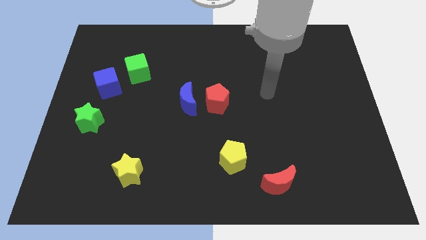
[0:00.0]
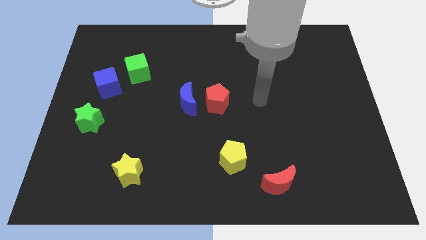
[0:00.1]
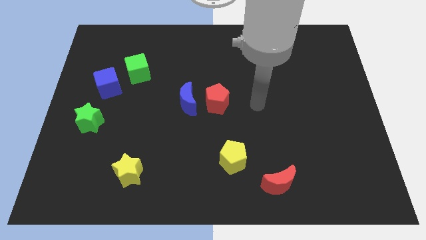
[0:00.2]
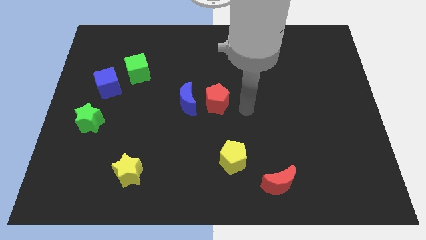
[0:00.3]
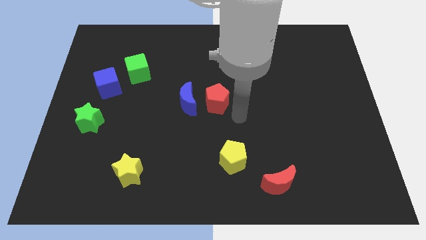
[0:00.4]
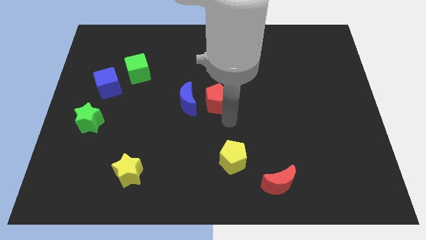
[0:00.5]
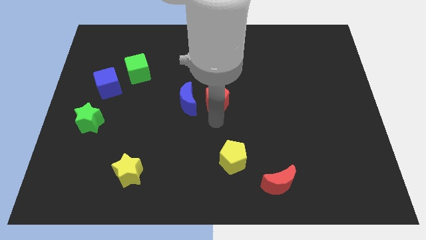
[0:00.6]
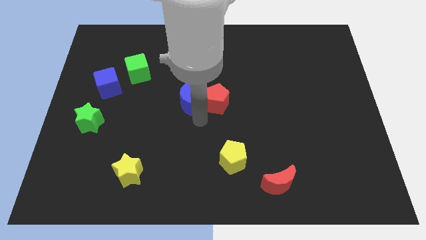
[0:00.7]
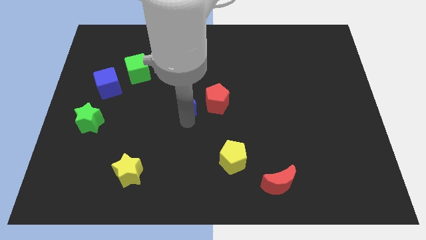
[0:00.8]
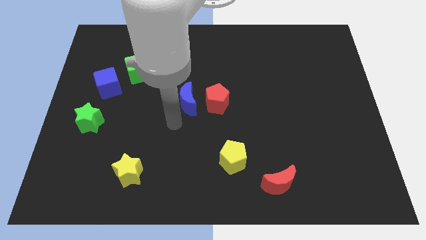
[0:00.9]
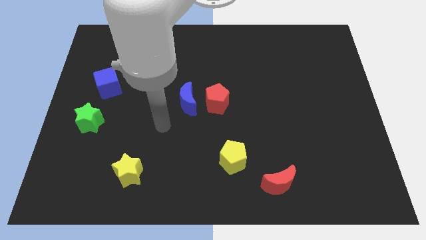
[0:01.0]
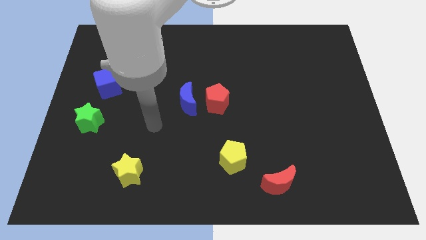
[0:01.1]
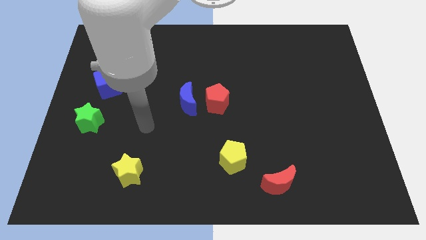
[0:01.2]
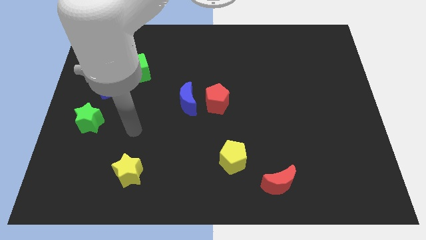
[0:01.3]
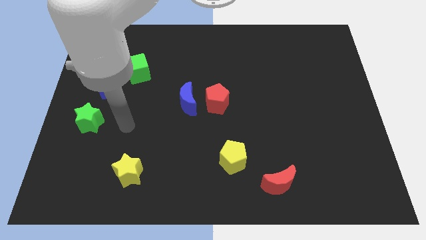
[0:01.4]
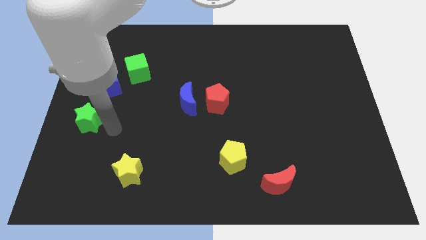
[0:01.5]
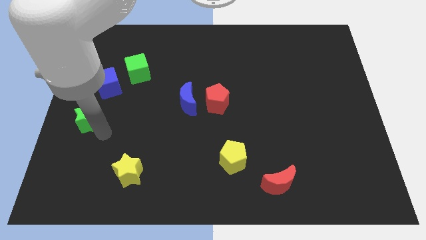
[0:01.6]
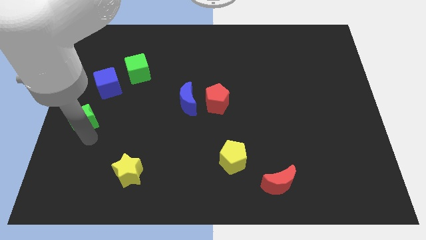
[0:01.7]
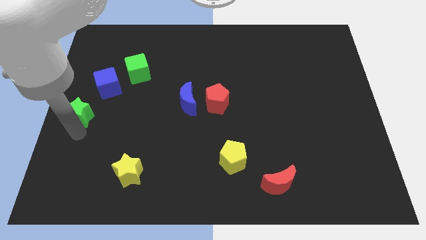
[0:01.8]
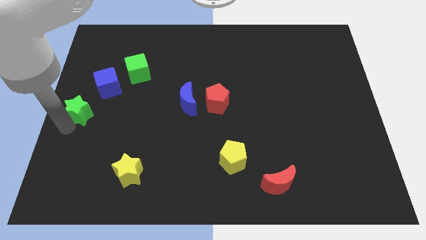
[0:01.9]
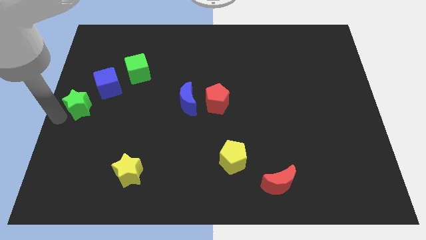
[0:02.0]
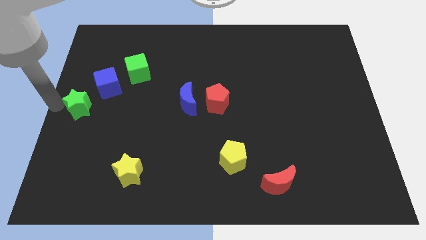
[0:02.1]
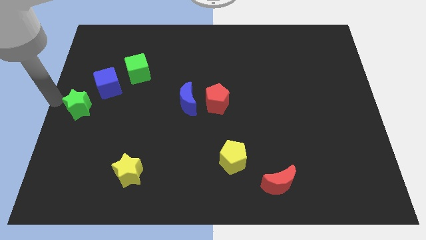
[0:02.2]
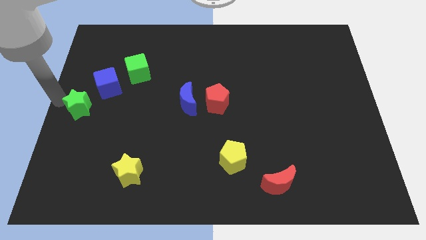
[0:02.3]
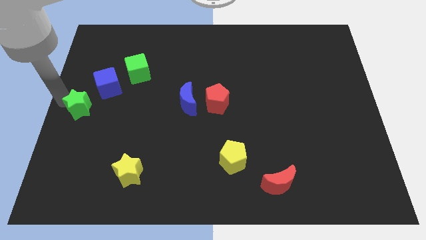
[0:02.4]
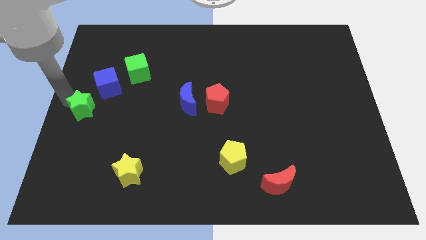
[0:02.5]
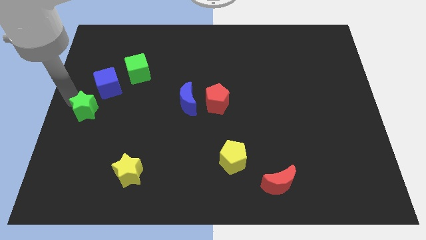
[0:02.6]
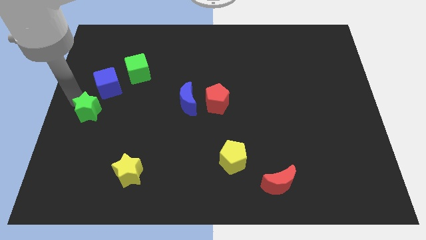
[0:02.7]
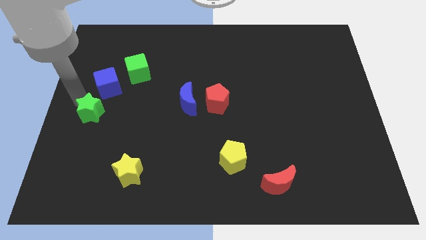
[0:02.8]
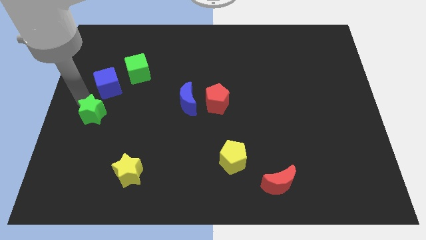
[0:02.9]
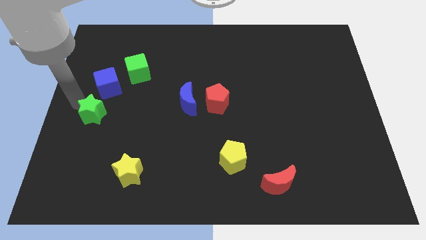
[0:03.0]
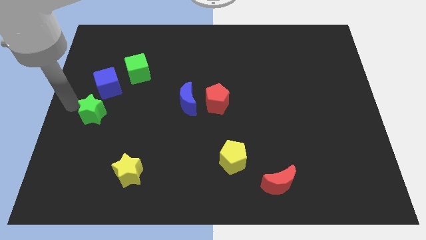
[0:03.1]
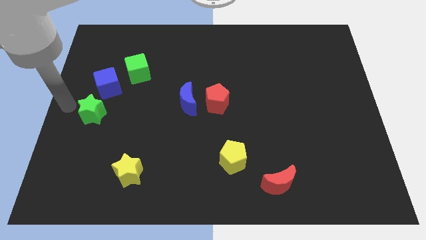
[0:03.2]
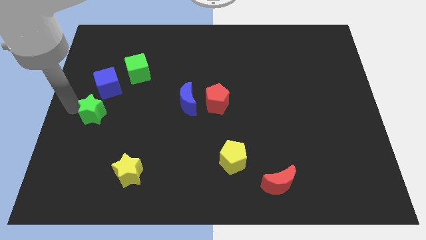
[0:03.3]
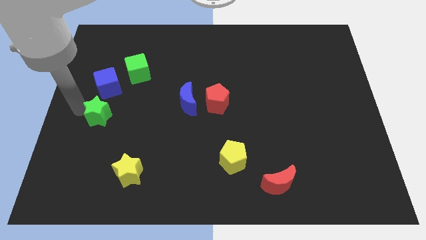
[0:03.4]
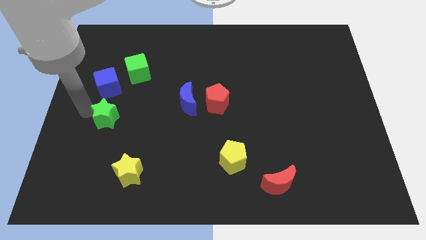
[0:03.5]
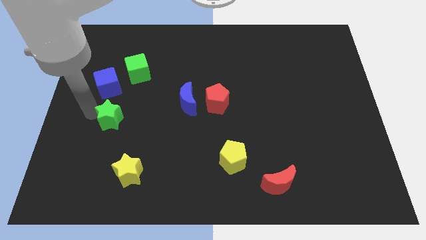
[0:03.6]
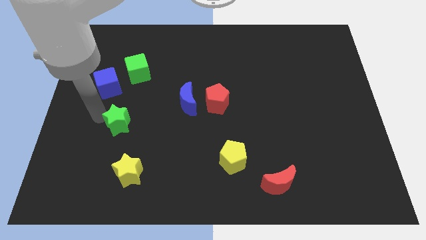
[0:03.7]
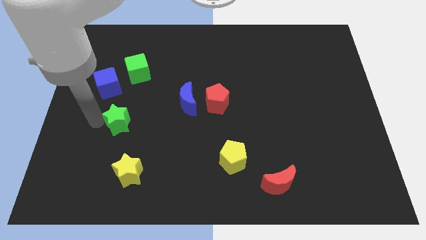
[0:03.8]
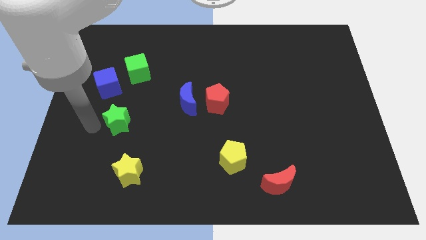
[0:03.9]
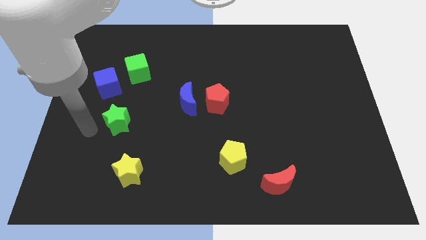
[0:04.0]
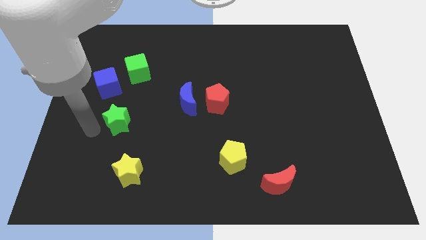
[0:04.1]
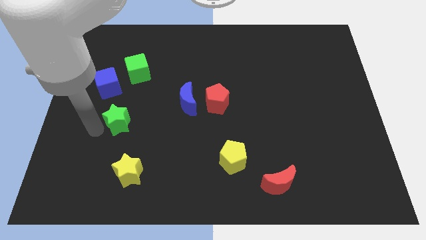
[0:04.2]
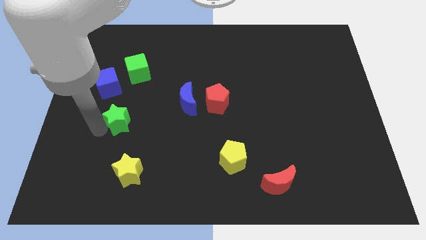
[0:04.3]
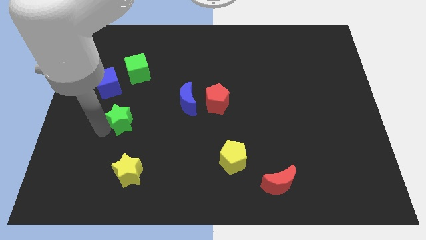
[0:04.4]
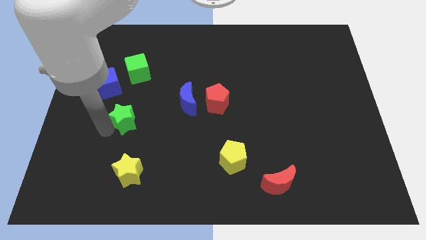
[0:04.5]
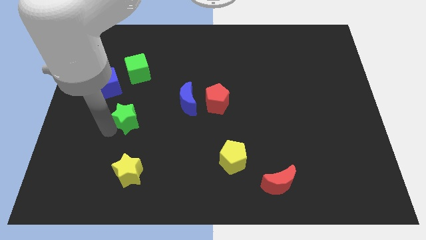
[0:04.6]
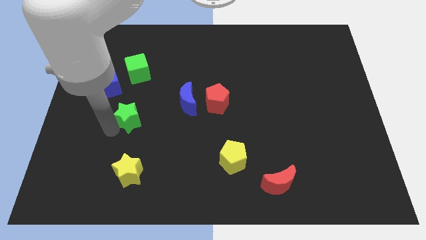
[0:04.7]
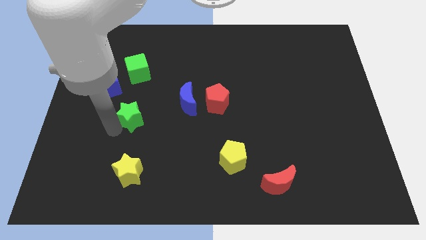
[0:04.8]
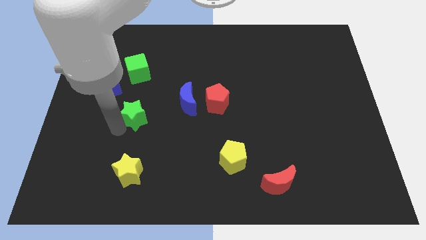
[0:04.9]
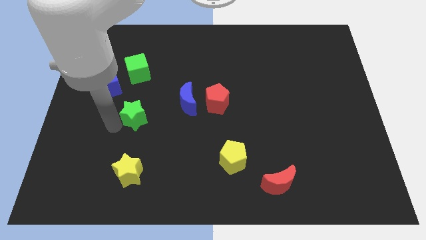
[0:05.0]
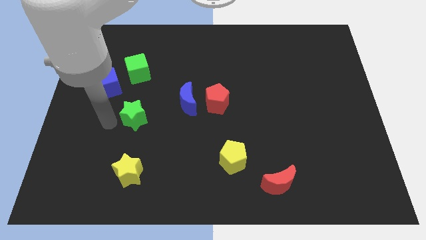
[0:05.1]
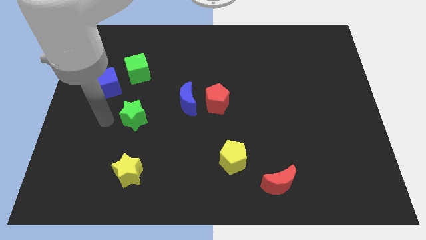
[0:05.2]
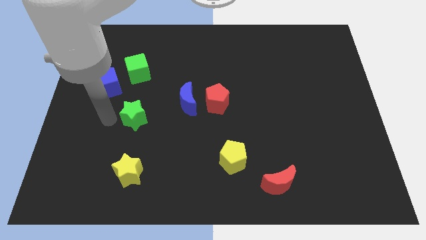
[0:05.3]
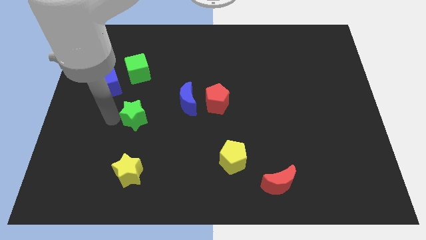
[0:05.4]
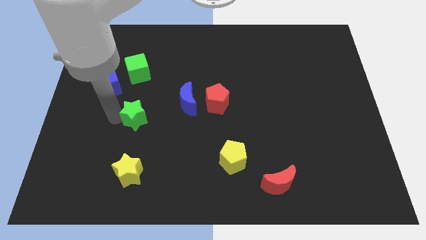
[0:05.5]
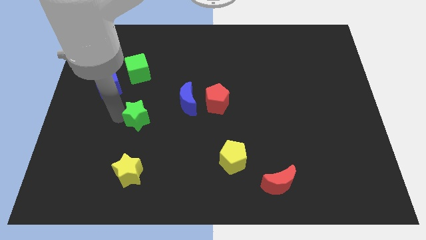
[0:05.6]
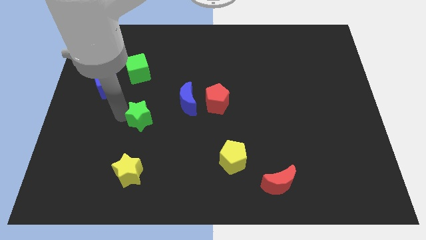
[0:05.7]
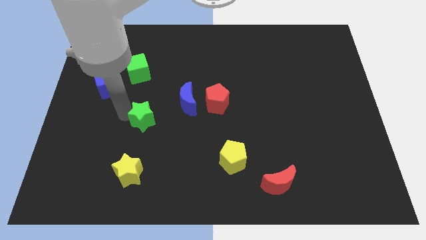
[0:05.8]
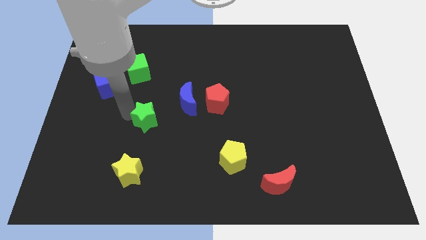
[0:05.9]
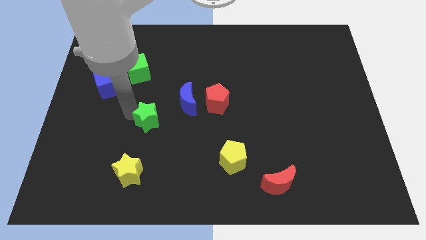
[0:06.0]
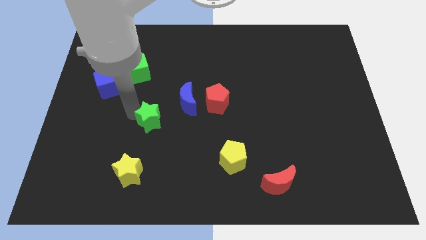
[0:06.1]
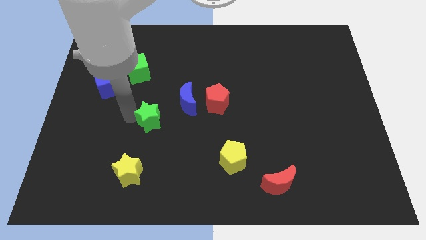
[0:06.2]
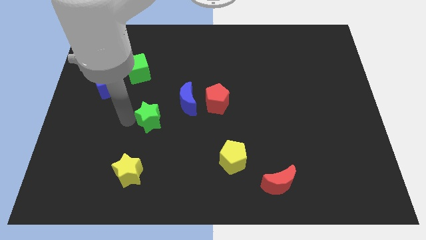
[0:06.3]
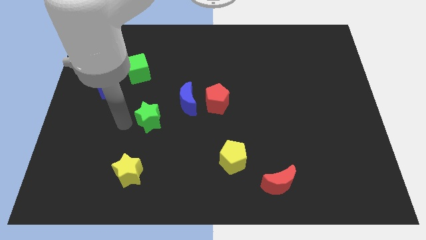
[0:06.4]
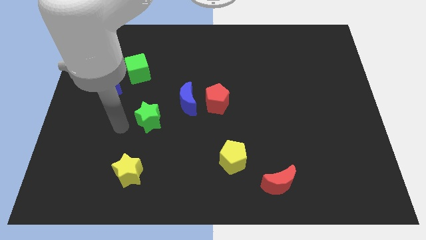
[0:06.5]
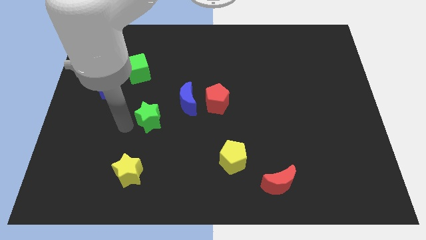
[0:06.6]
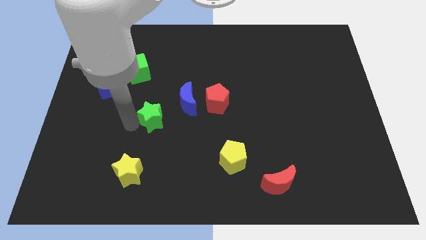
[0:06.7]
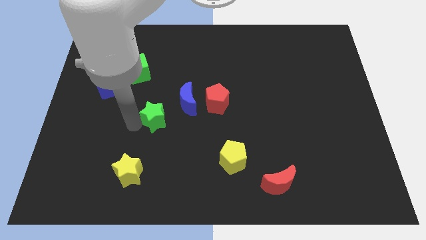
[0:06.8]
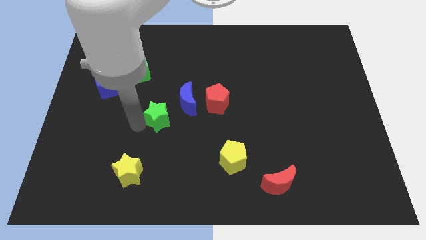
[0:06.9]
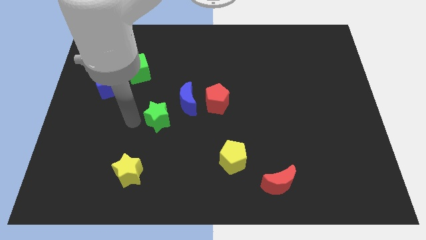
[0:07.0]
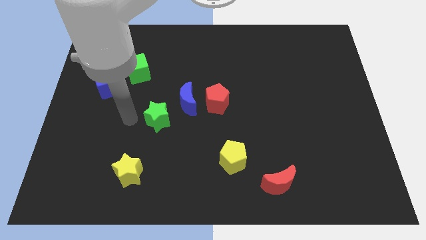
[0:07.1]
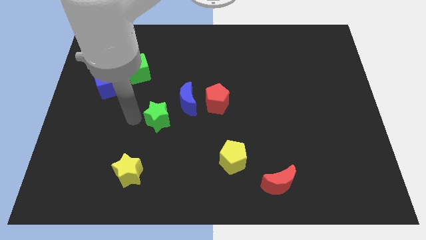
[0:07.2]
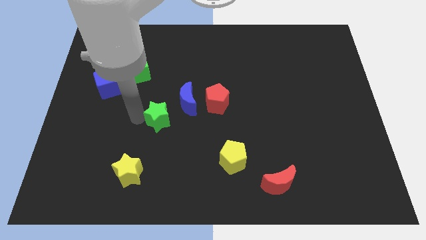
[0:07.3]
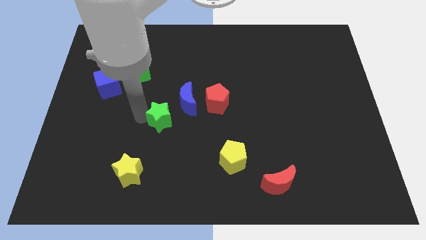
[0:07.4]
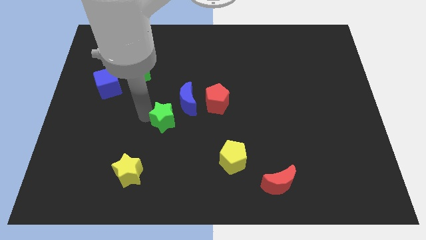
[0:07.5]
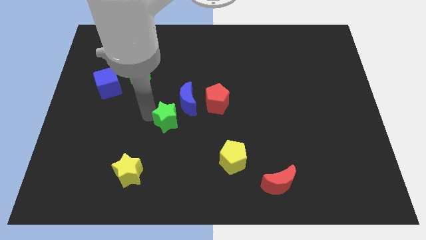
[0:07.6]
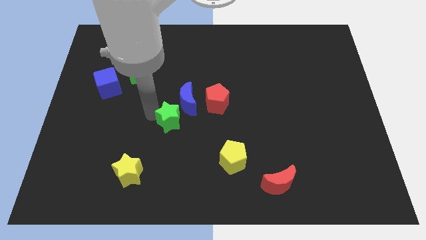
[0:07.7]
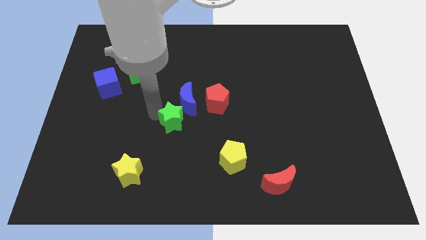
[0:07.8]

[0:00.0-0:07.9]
put the green star to the bottom left of the red pentagon
